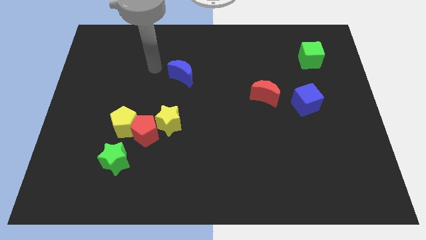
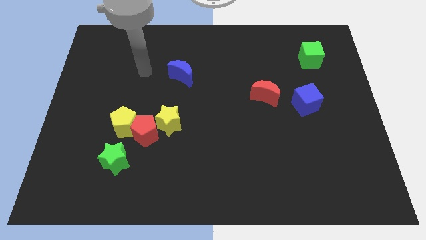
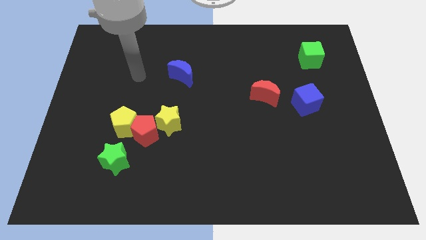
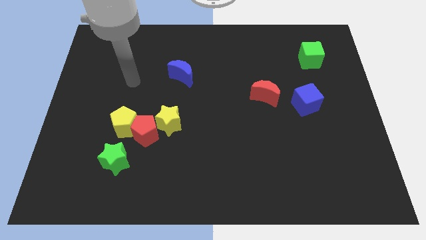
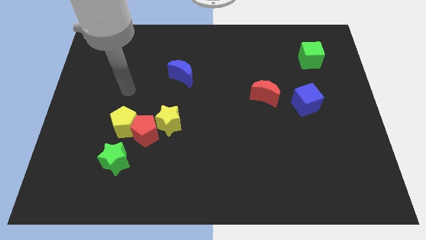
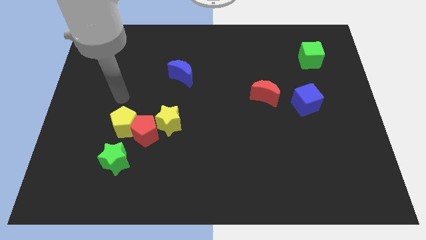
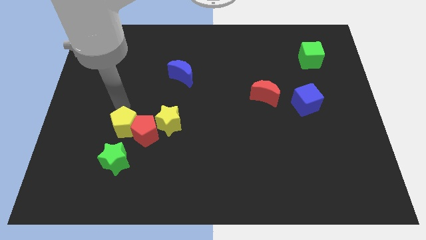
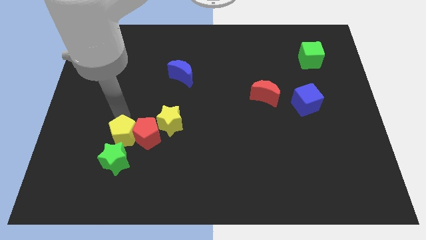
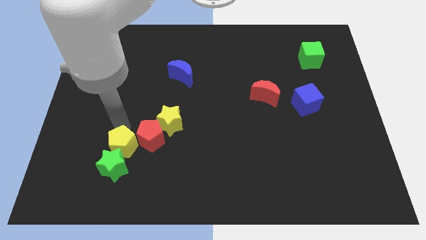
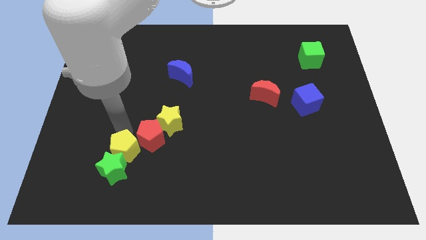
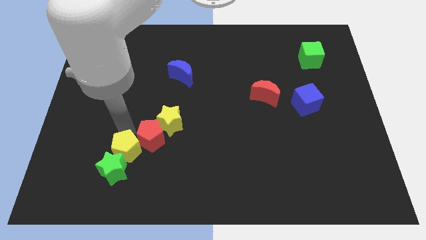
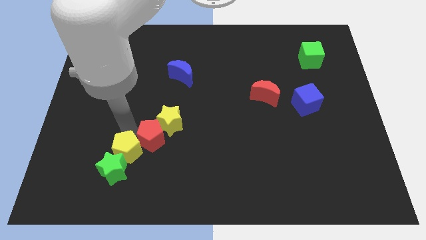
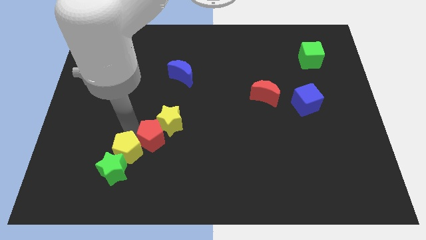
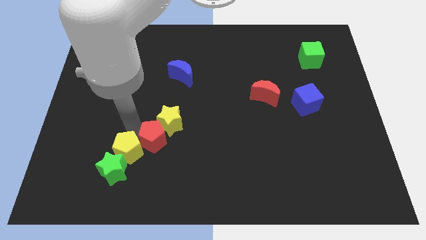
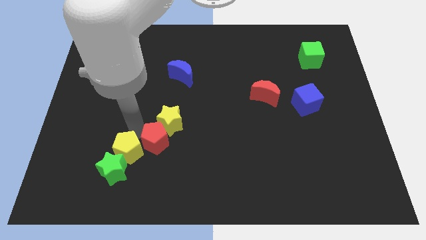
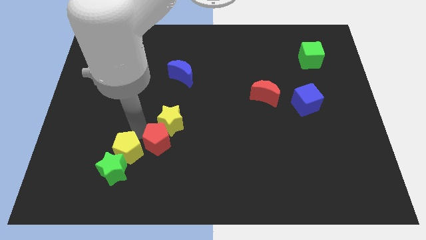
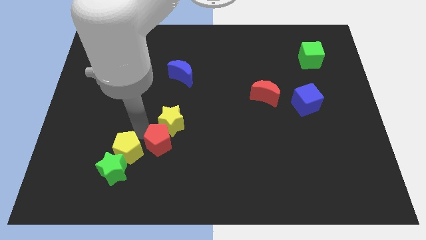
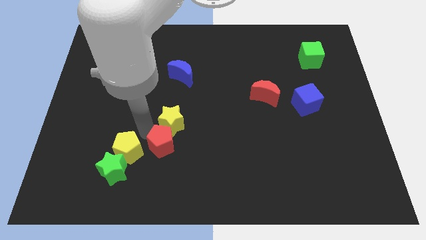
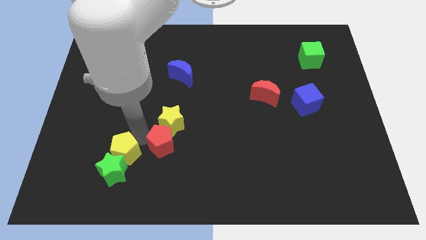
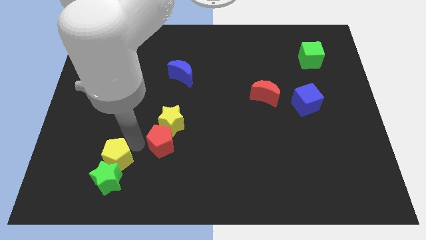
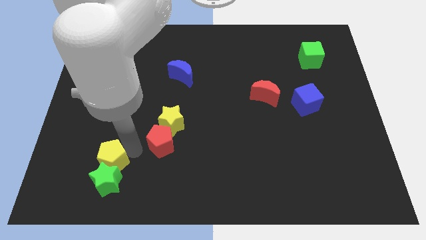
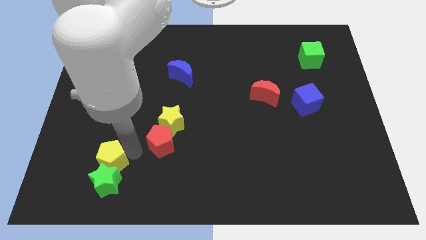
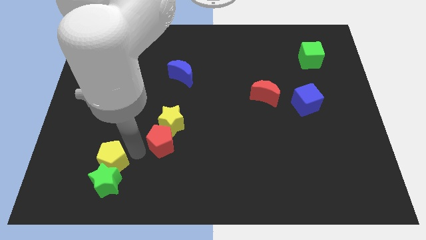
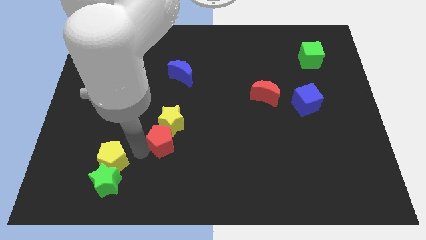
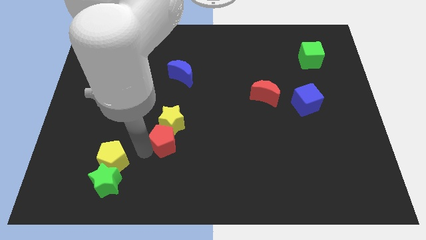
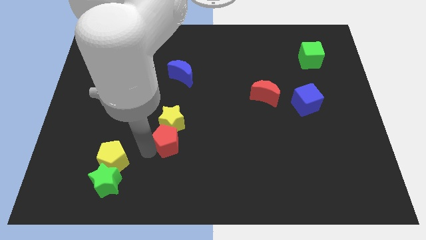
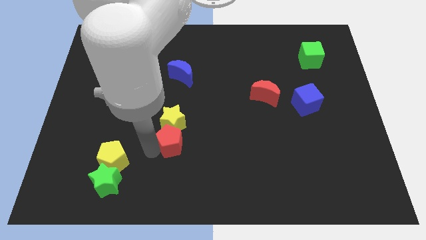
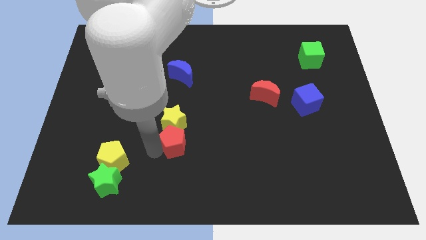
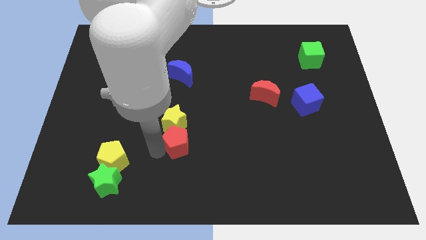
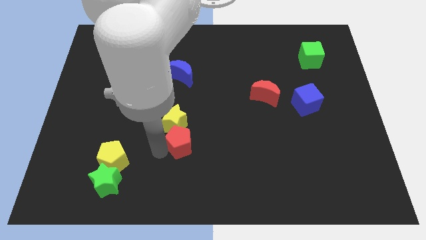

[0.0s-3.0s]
separate the red pentagon from the group

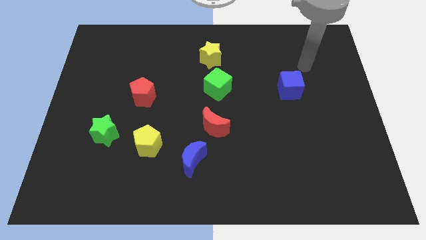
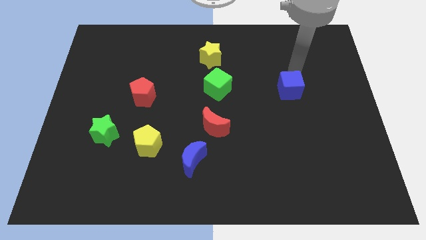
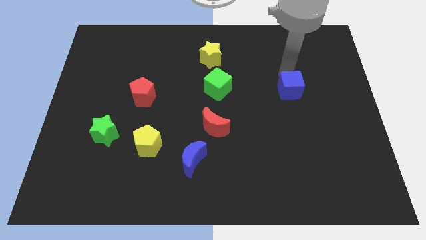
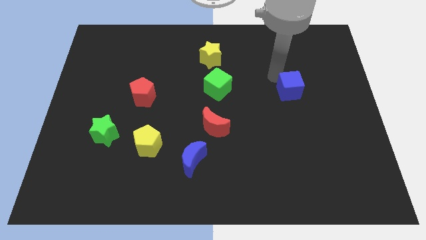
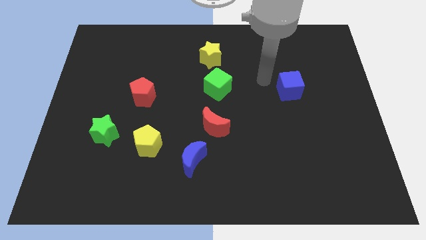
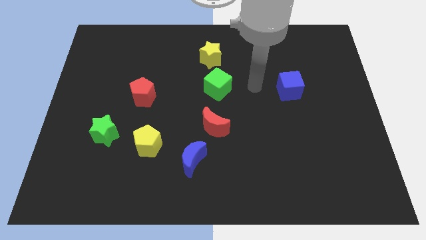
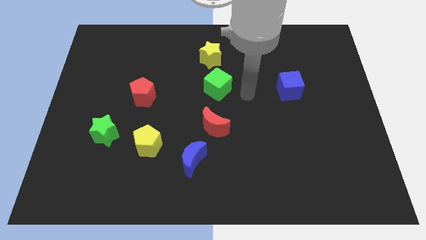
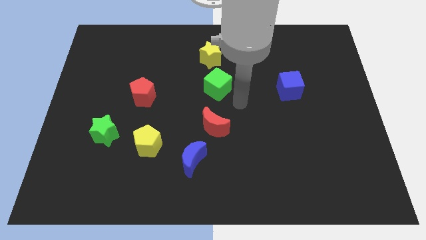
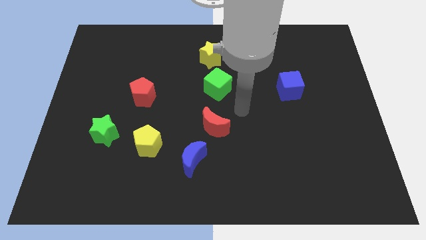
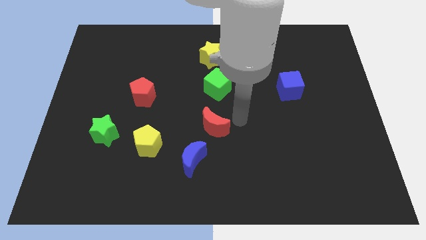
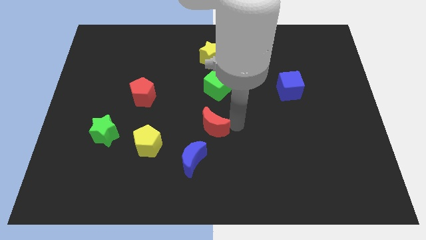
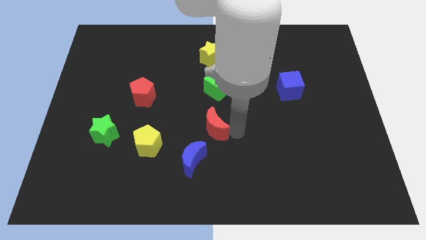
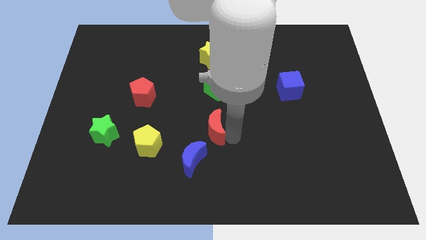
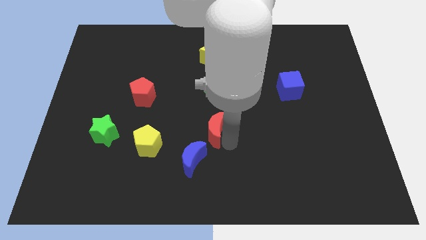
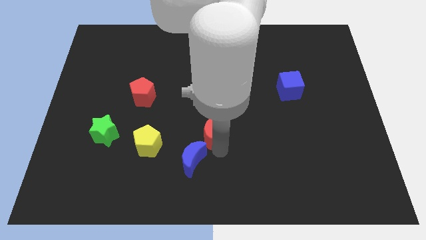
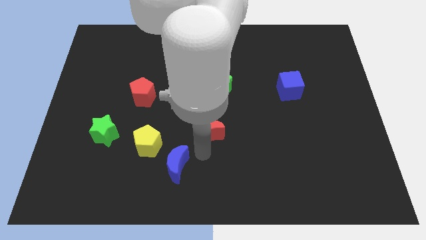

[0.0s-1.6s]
pull the red moon apart from the blue moon

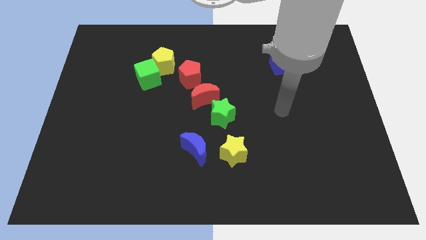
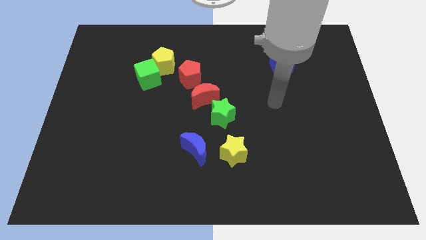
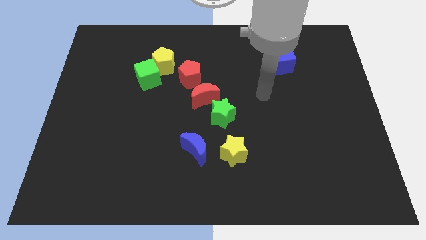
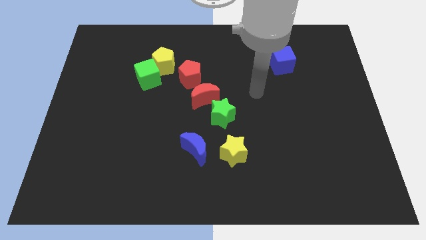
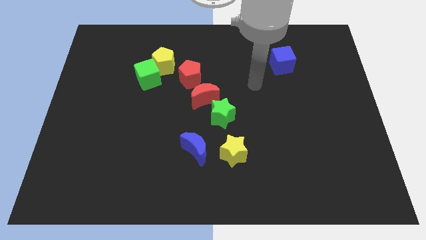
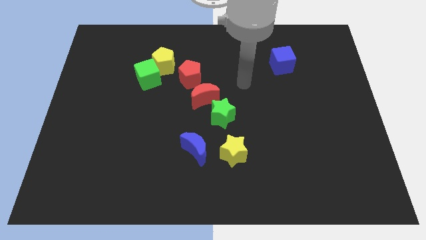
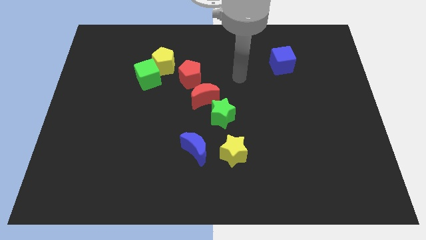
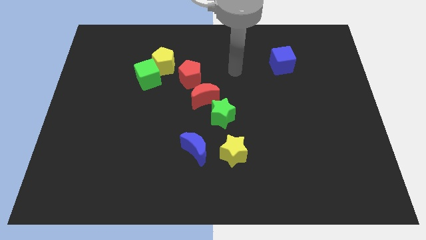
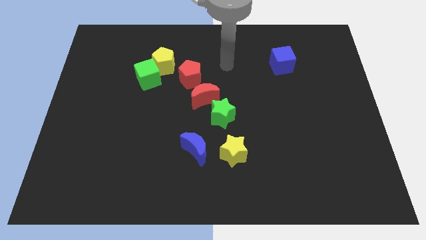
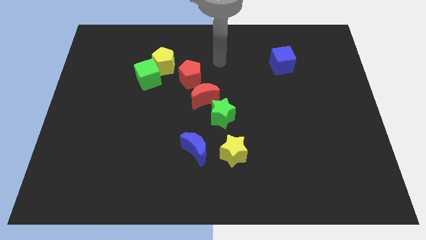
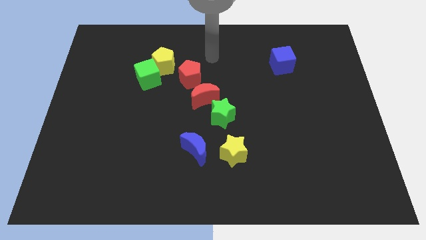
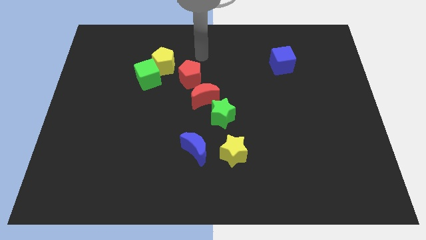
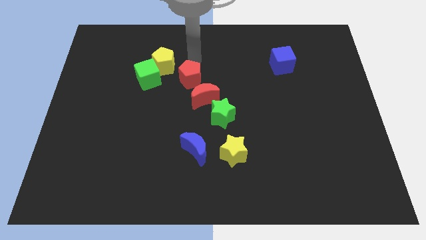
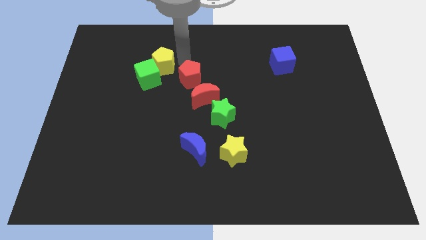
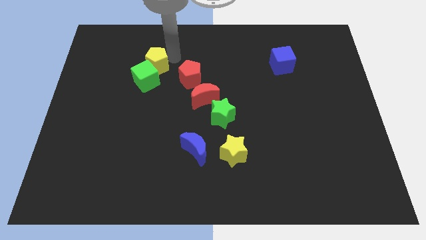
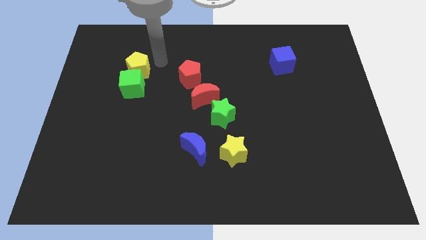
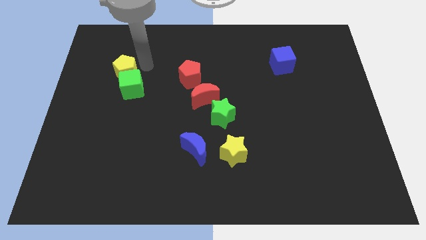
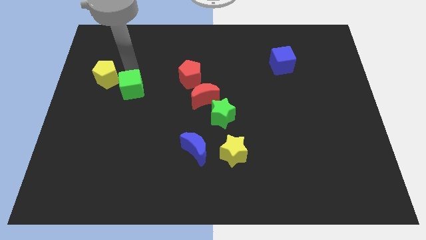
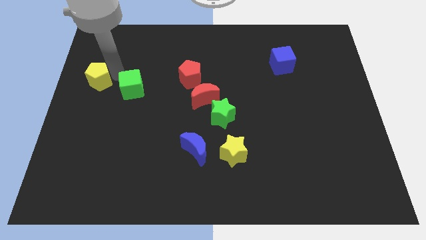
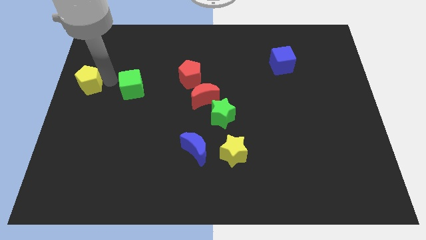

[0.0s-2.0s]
separate the green cube from the yellow pentagon

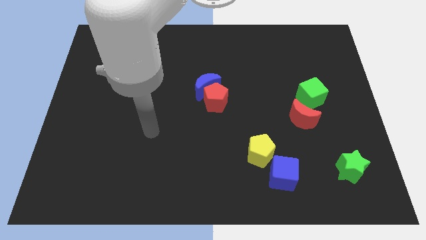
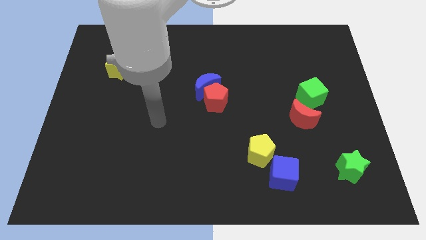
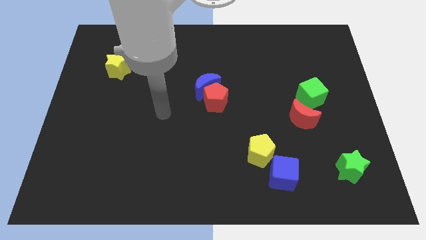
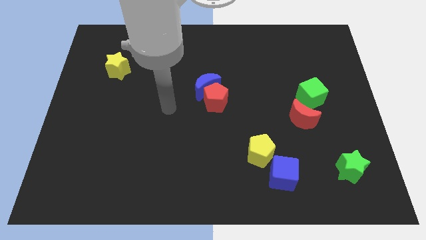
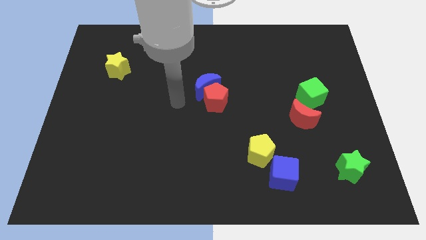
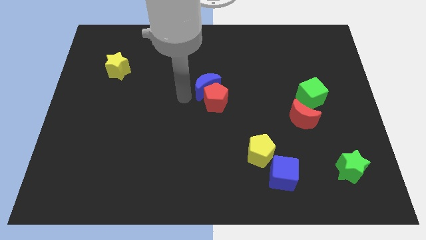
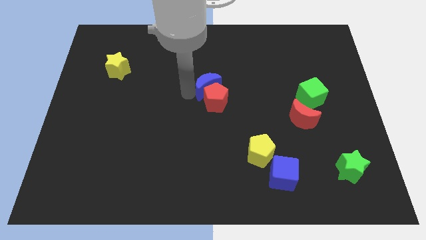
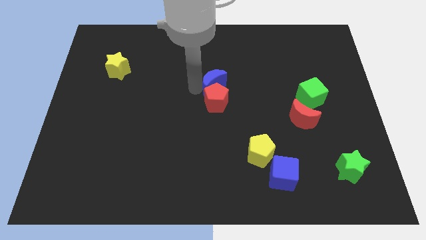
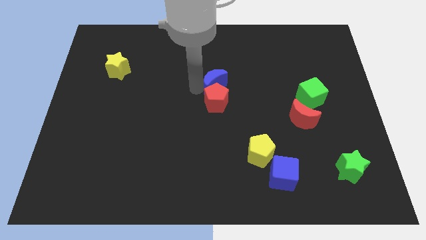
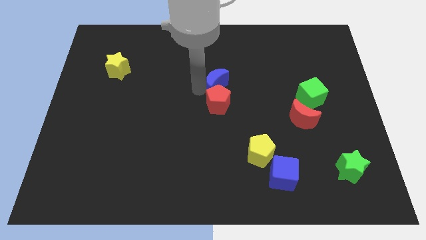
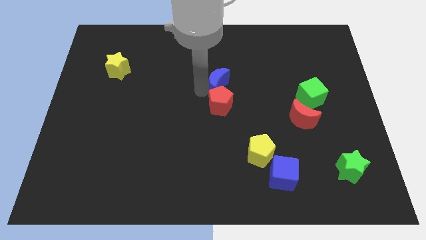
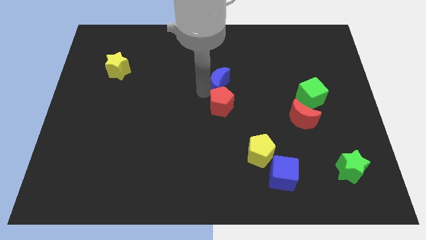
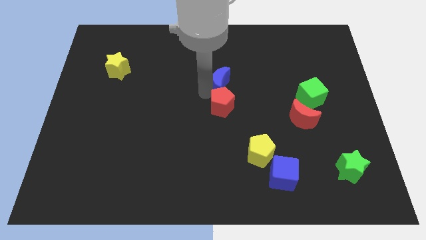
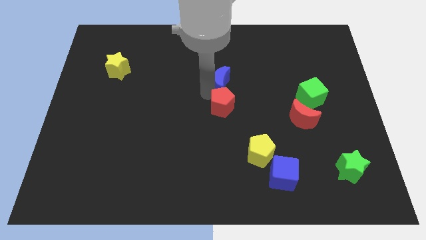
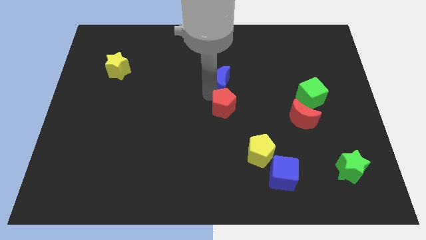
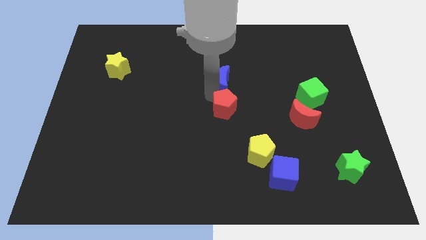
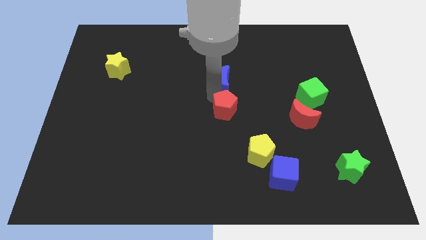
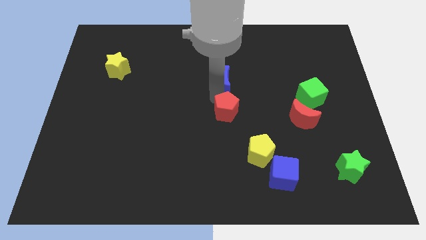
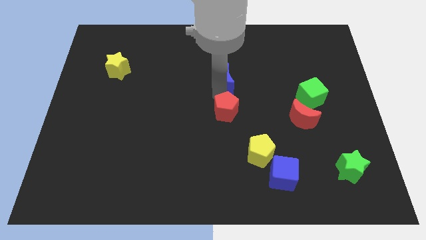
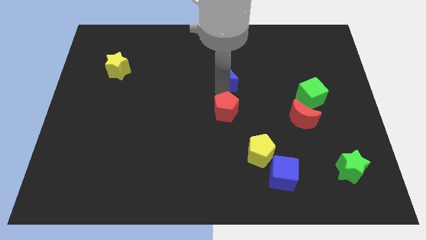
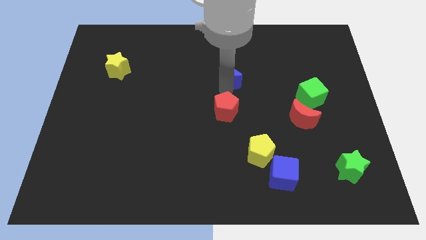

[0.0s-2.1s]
move the red pentagon away from the blue moon

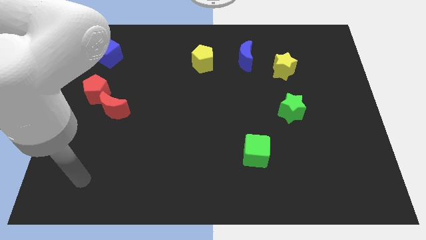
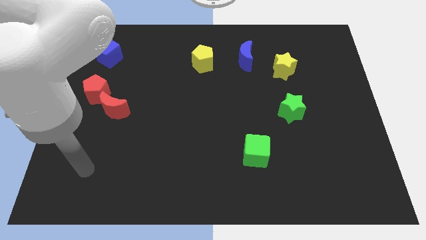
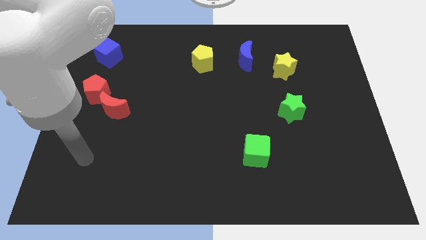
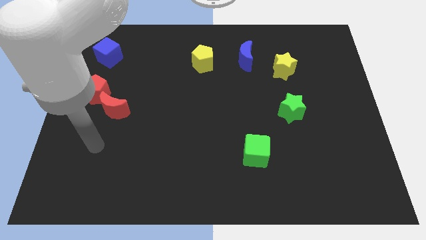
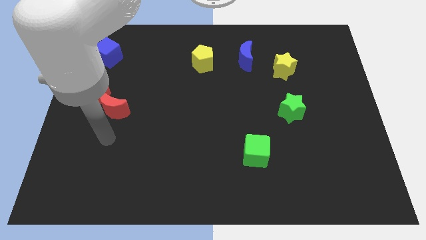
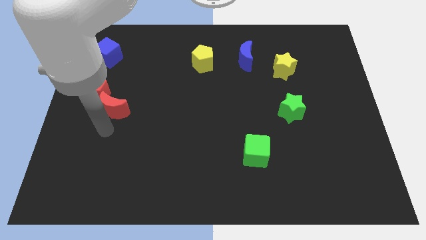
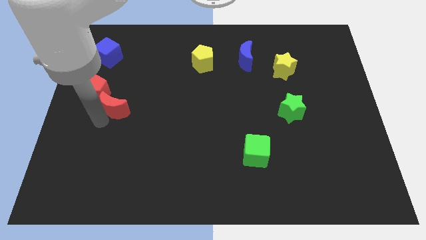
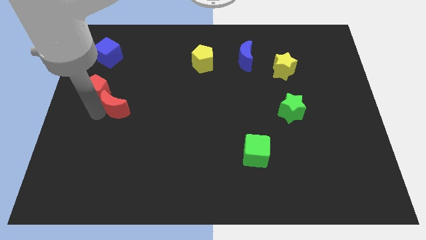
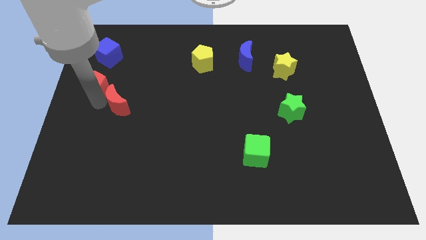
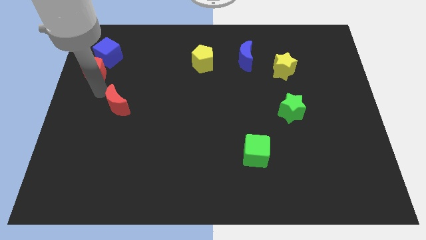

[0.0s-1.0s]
separate the red moon from the red pentagon
